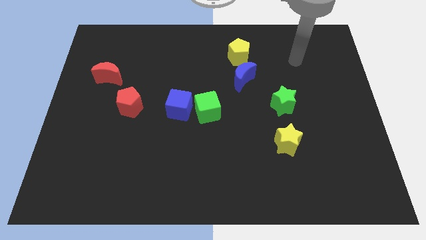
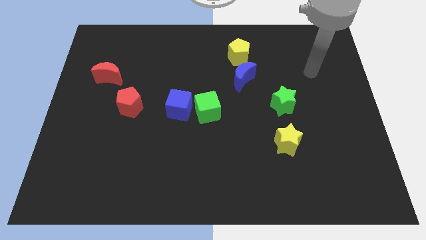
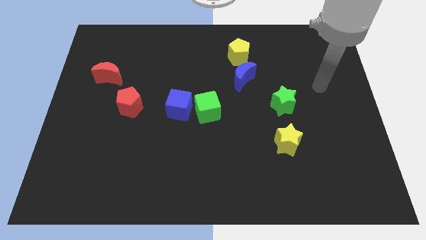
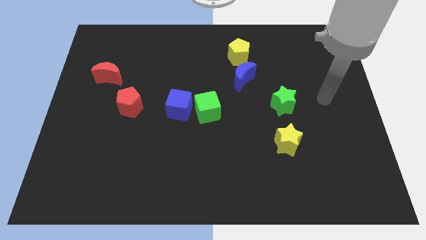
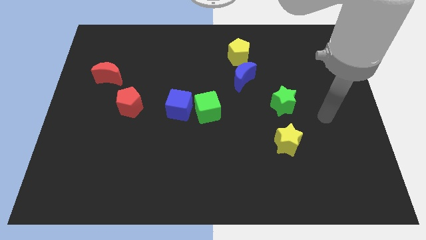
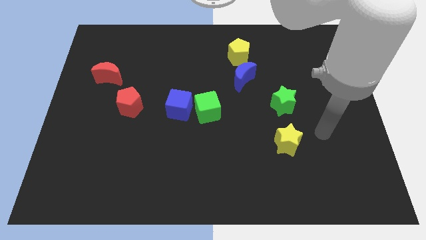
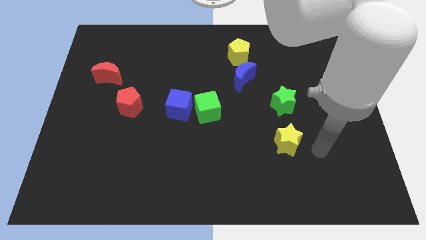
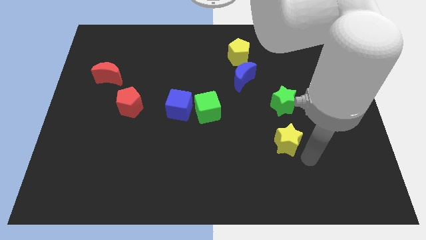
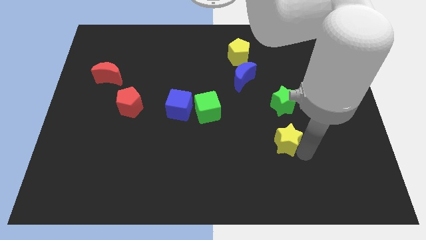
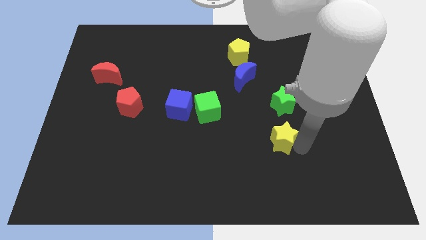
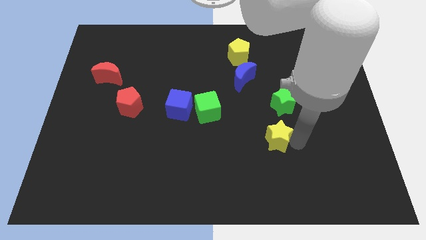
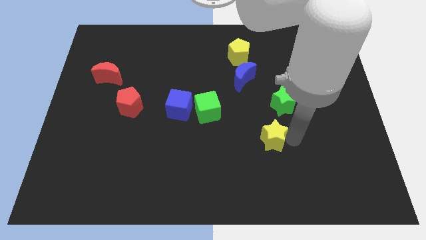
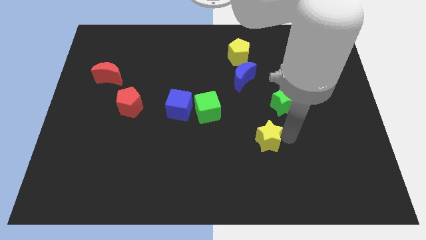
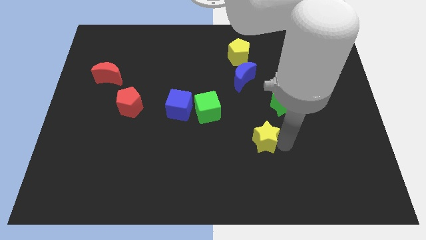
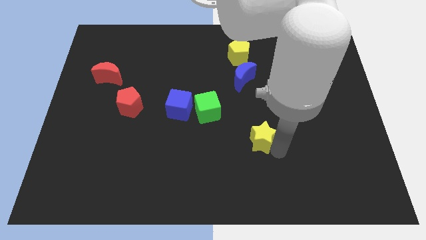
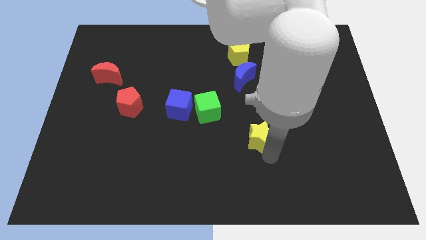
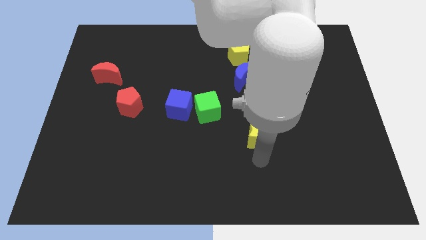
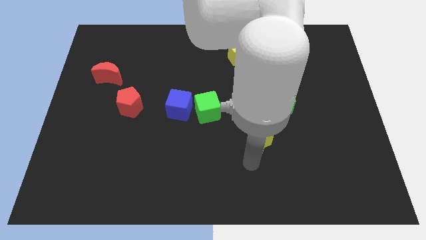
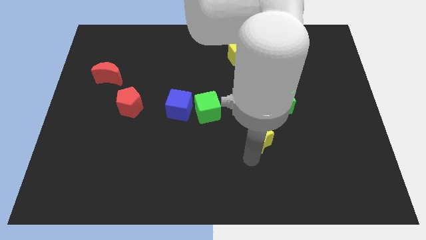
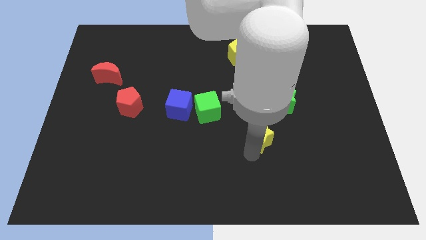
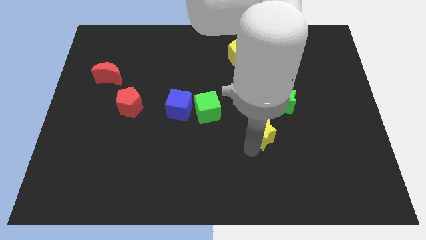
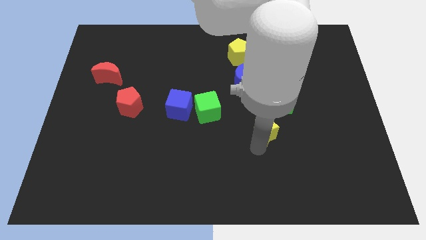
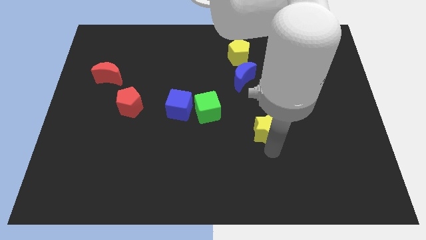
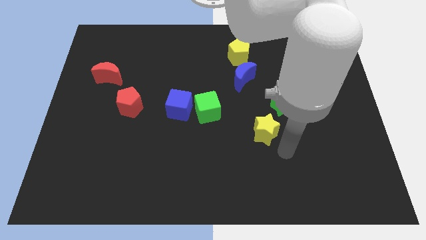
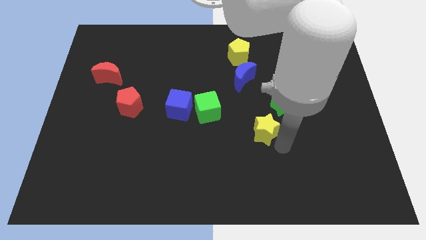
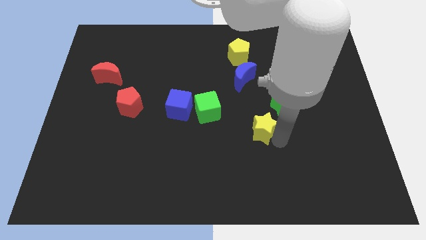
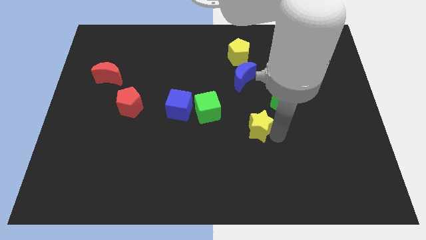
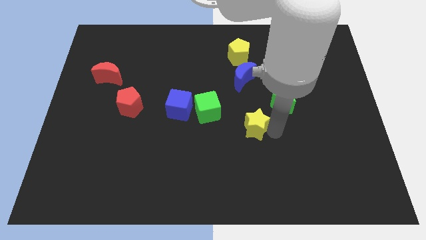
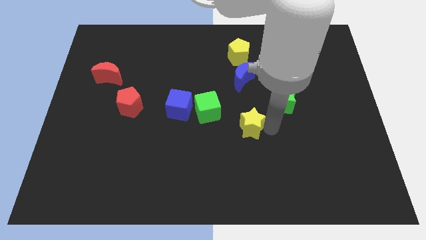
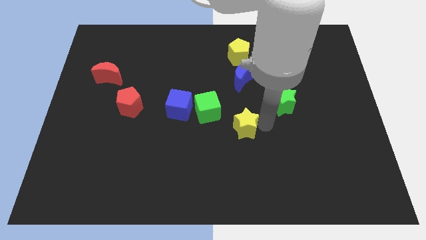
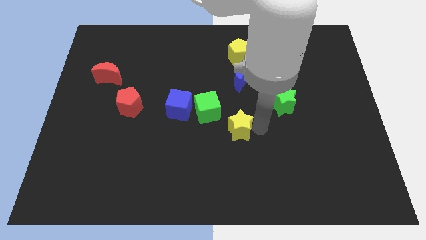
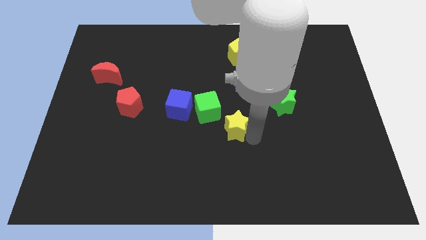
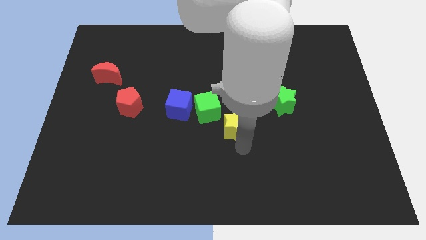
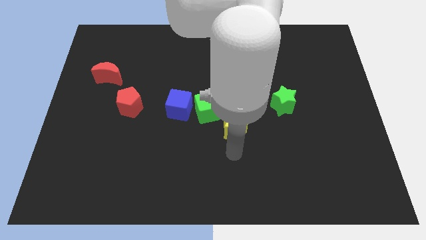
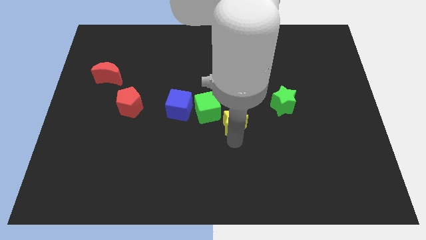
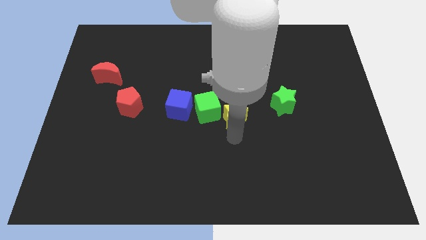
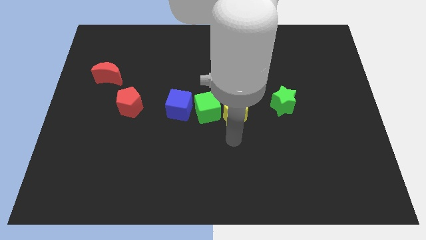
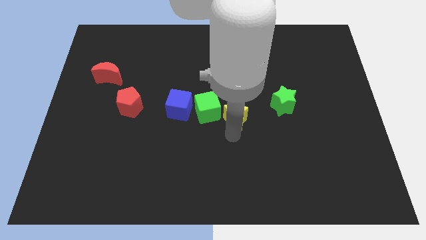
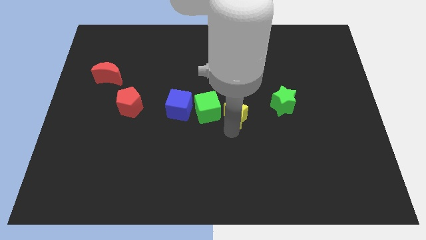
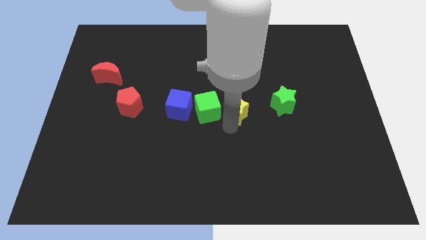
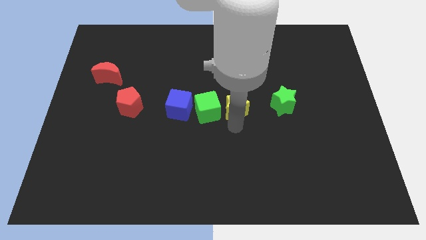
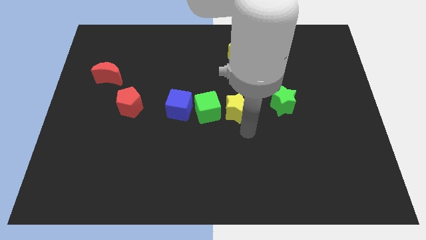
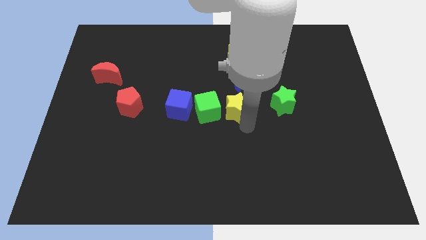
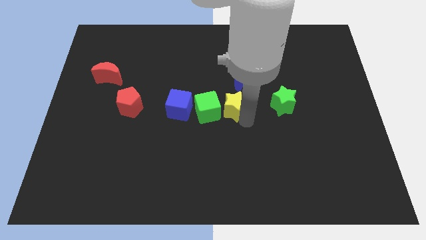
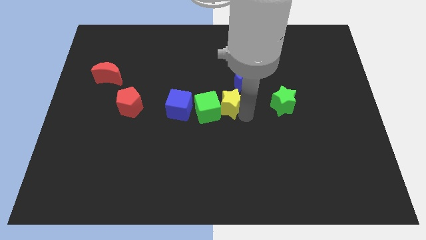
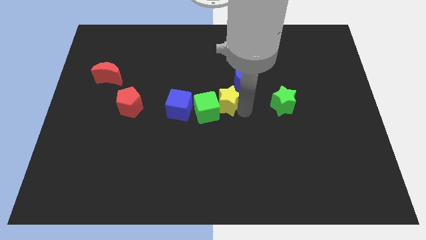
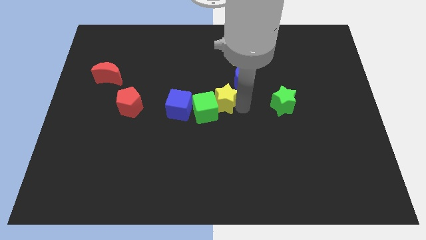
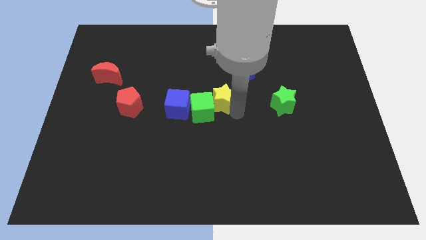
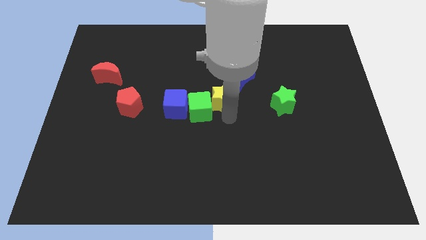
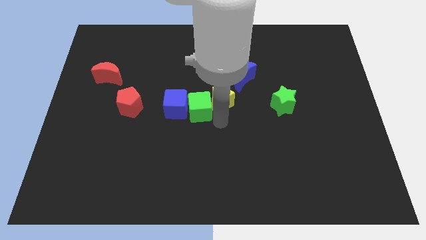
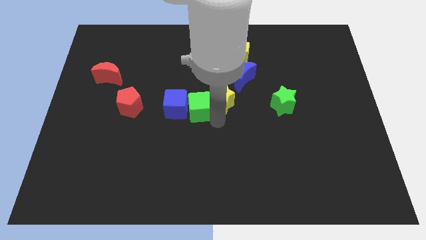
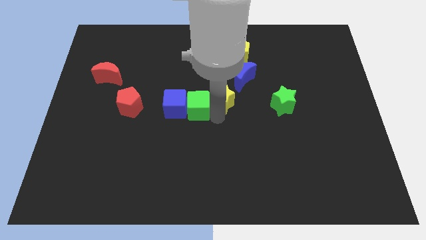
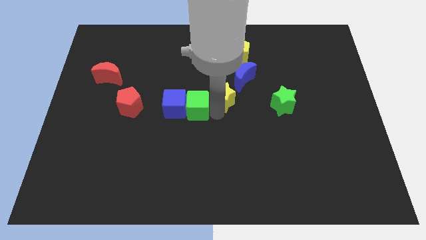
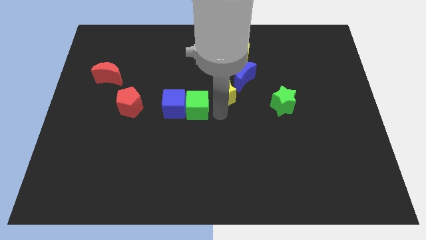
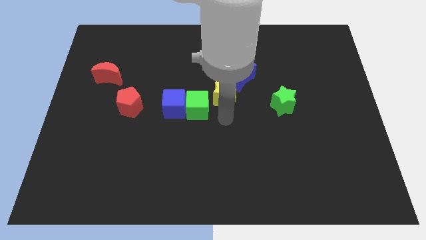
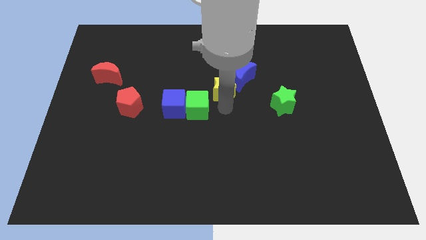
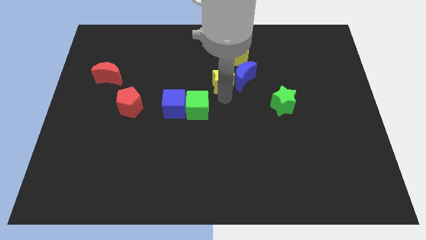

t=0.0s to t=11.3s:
slide the yellow star diagonally up and to the left of the blue moon
